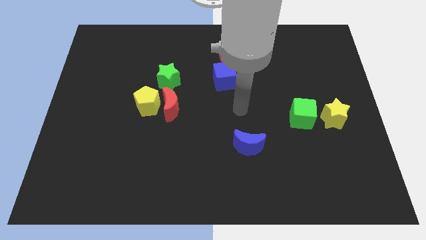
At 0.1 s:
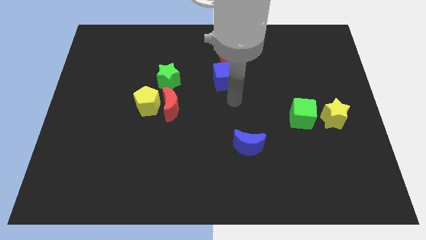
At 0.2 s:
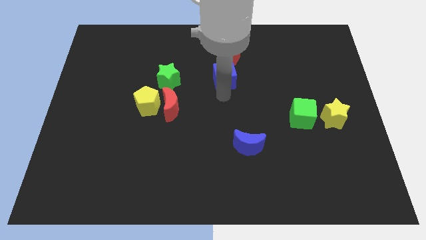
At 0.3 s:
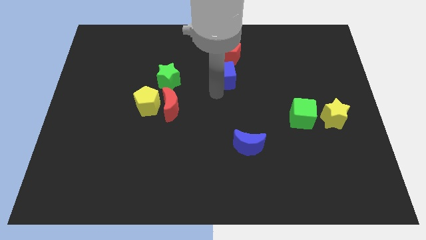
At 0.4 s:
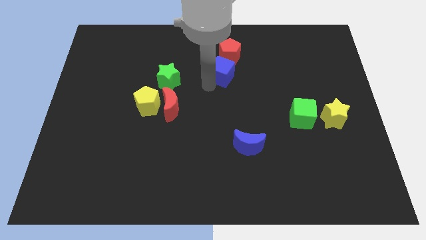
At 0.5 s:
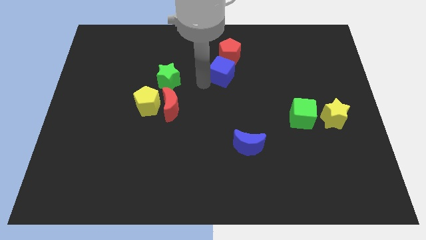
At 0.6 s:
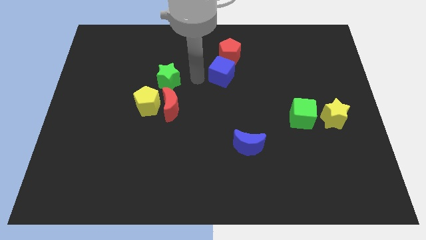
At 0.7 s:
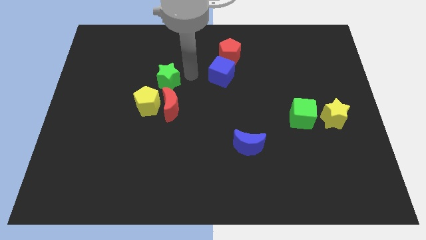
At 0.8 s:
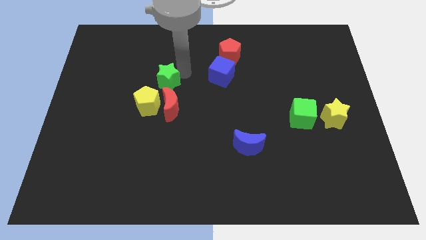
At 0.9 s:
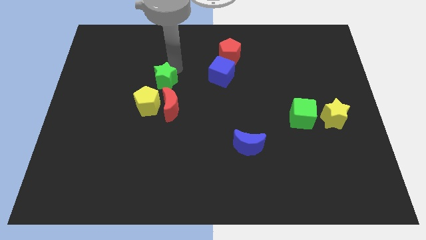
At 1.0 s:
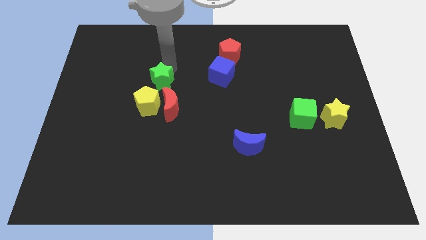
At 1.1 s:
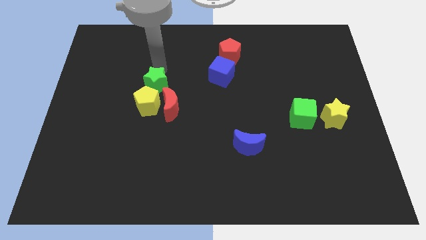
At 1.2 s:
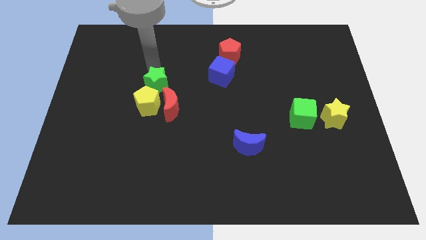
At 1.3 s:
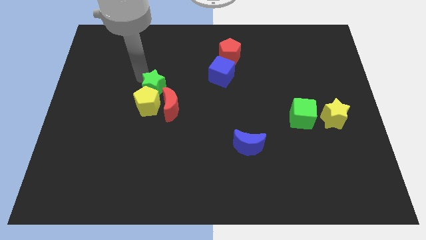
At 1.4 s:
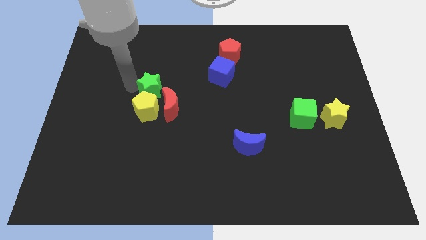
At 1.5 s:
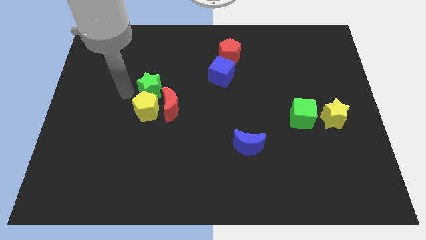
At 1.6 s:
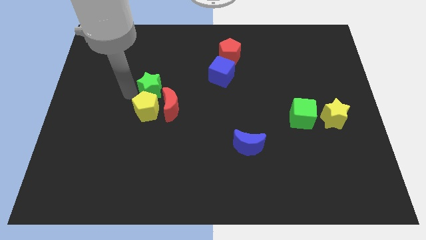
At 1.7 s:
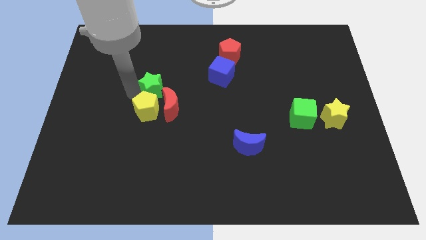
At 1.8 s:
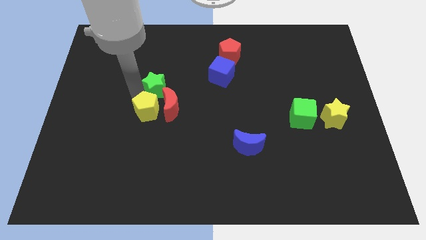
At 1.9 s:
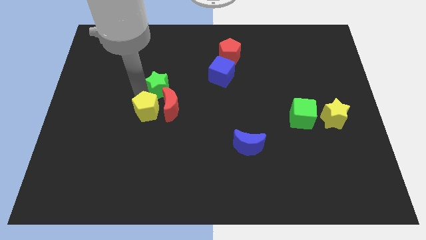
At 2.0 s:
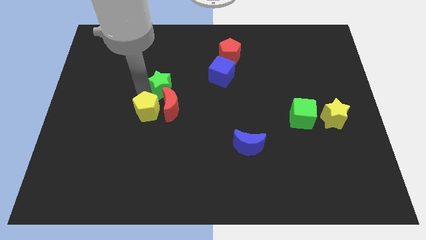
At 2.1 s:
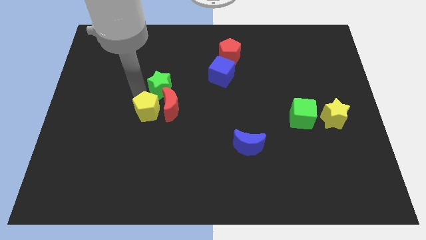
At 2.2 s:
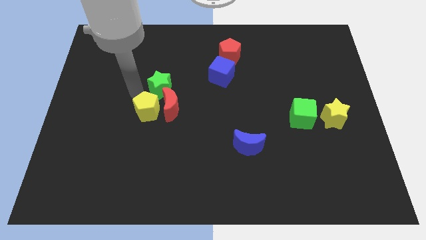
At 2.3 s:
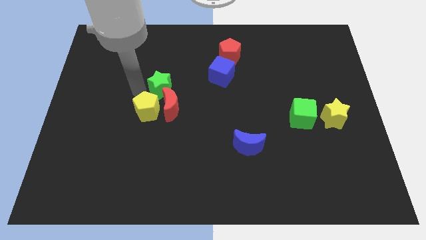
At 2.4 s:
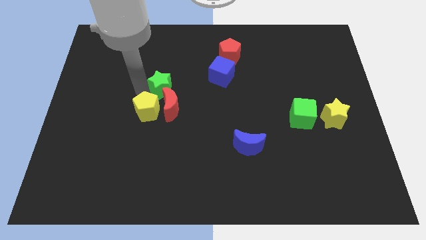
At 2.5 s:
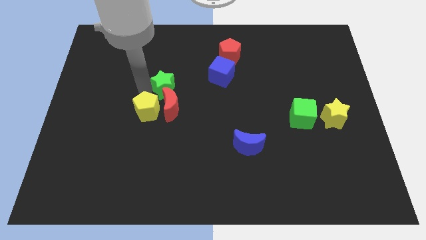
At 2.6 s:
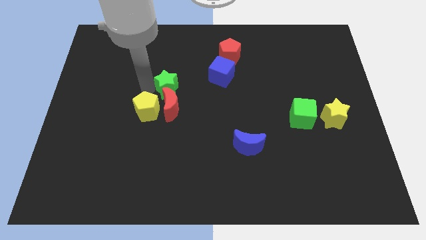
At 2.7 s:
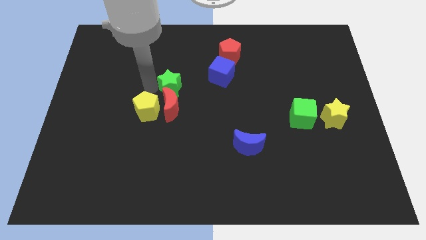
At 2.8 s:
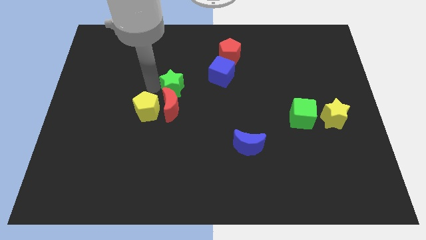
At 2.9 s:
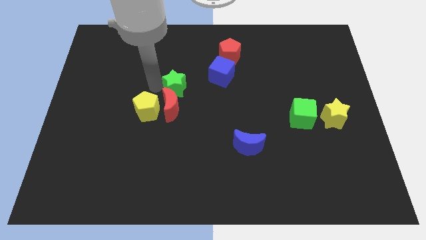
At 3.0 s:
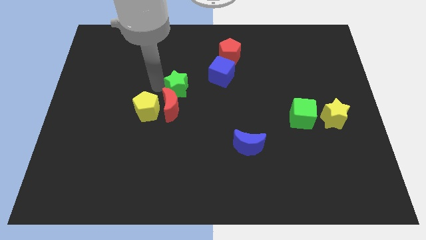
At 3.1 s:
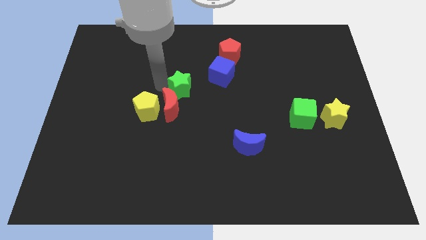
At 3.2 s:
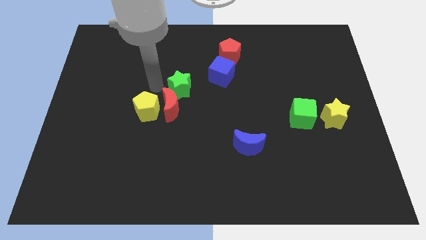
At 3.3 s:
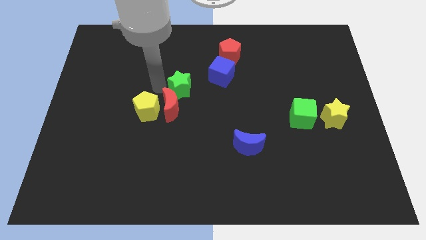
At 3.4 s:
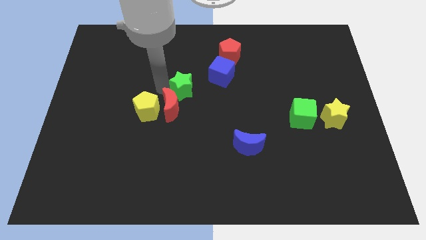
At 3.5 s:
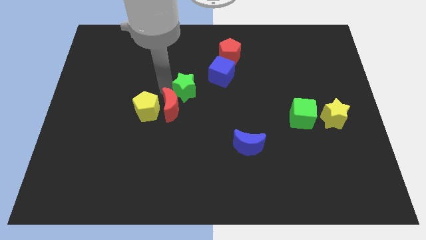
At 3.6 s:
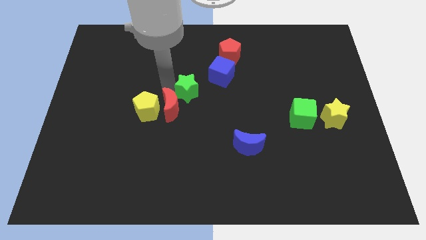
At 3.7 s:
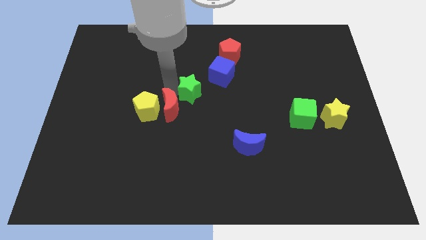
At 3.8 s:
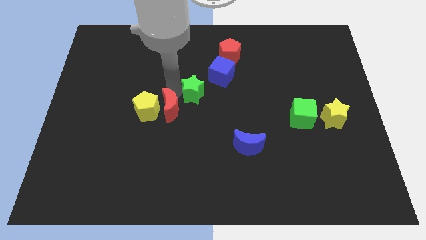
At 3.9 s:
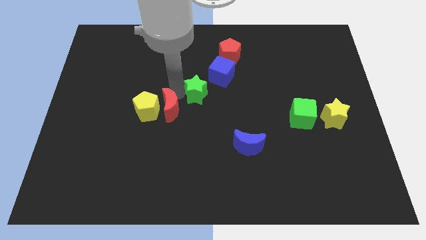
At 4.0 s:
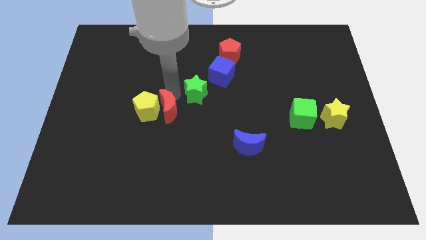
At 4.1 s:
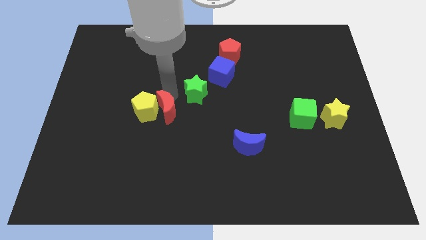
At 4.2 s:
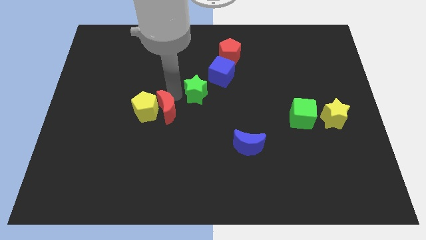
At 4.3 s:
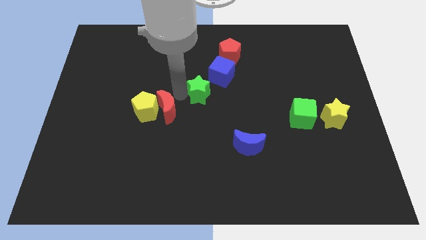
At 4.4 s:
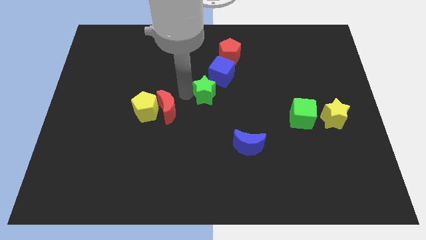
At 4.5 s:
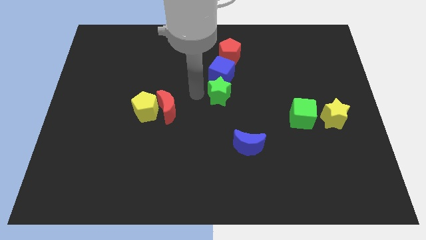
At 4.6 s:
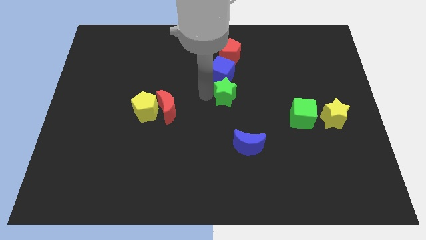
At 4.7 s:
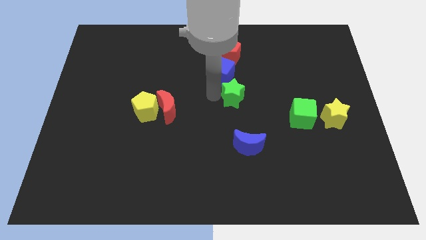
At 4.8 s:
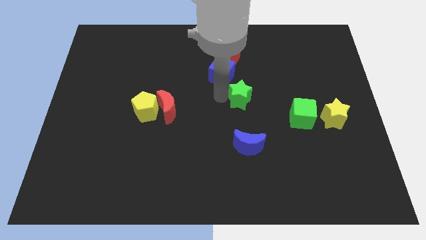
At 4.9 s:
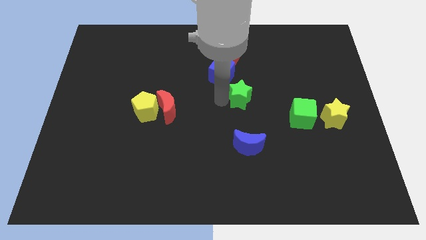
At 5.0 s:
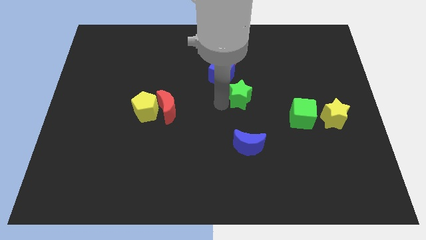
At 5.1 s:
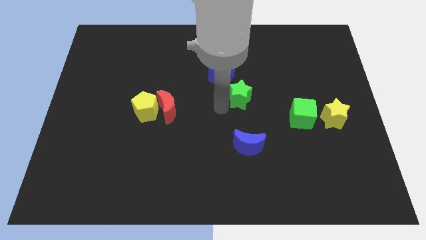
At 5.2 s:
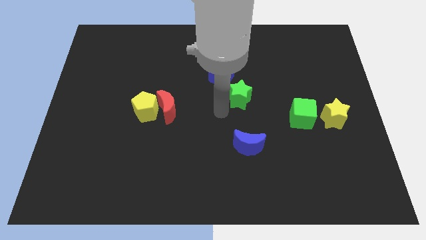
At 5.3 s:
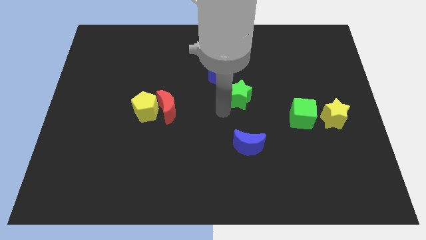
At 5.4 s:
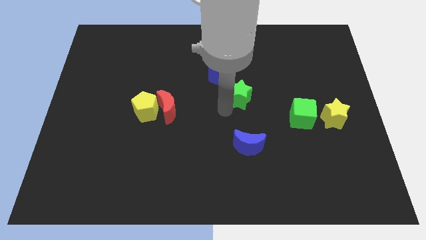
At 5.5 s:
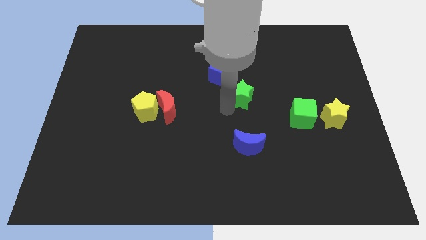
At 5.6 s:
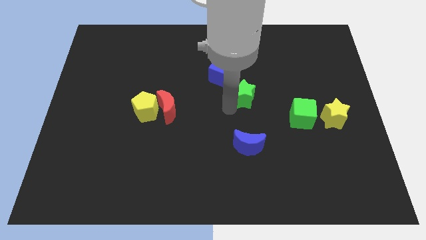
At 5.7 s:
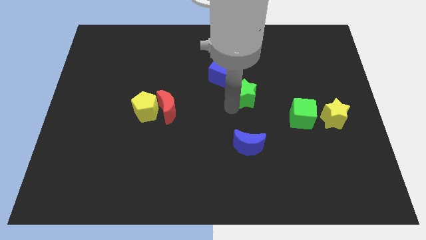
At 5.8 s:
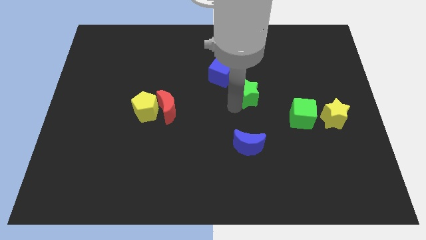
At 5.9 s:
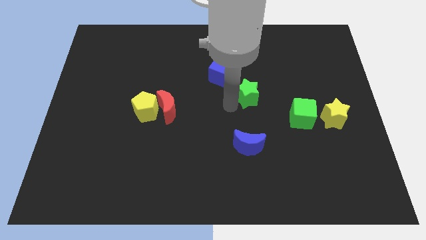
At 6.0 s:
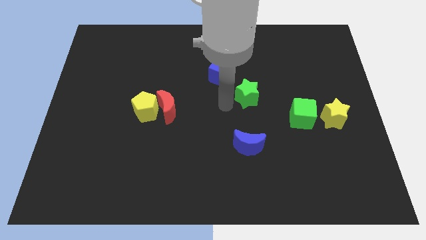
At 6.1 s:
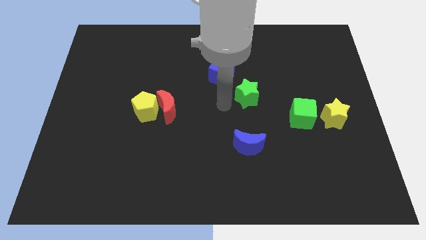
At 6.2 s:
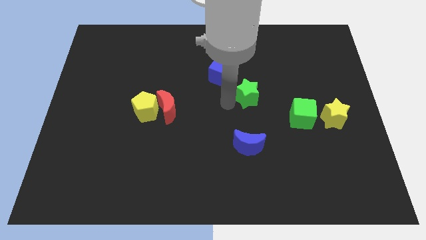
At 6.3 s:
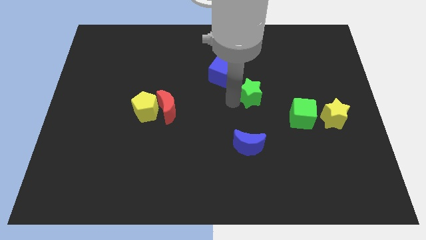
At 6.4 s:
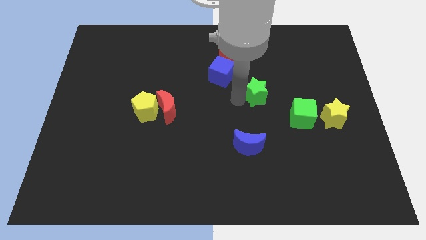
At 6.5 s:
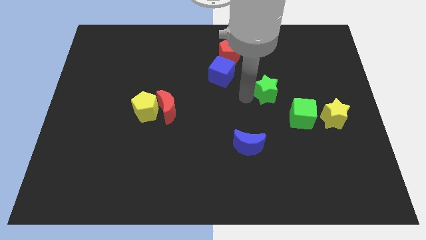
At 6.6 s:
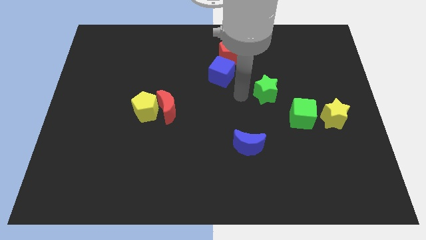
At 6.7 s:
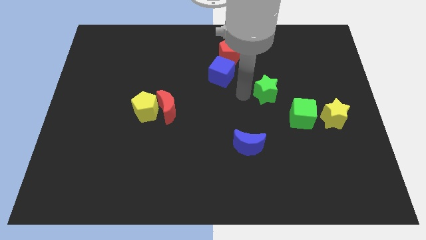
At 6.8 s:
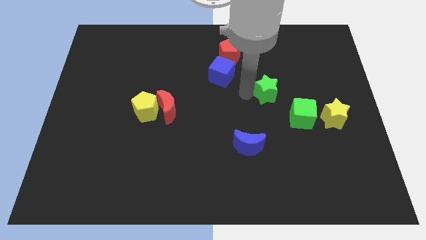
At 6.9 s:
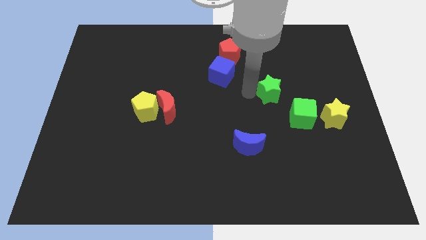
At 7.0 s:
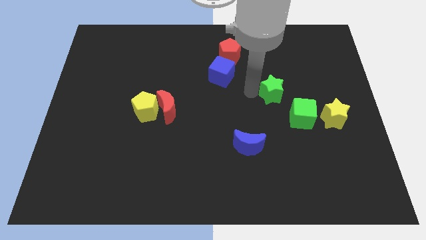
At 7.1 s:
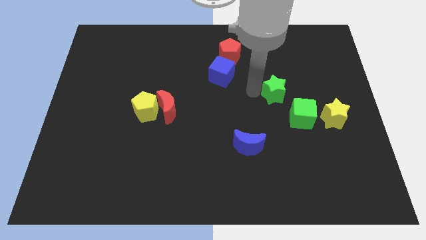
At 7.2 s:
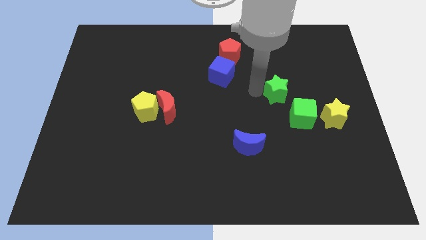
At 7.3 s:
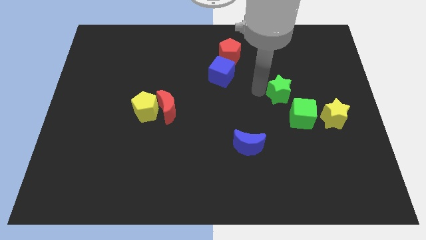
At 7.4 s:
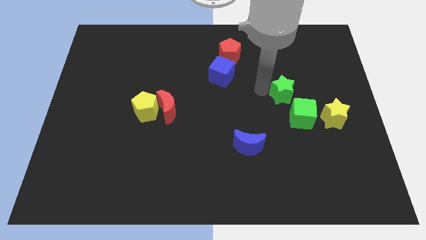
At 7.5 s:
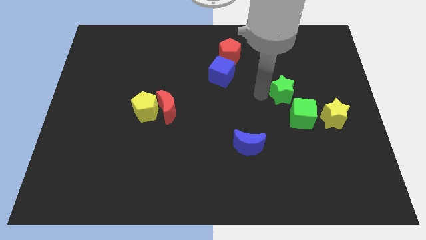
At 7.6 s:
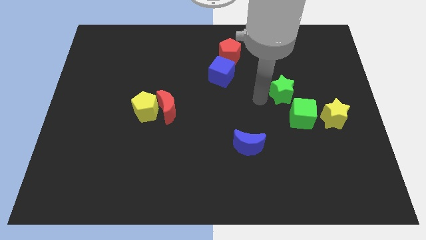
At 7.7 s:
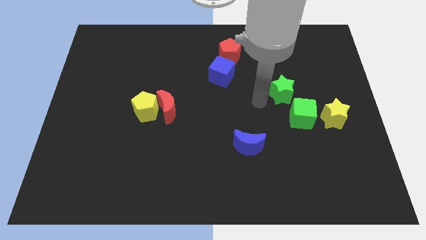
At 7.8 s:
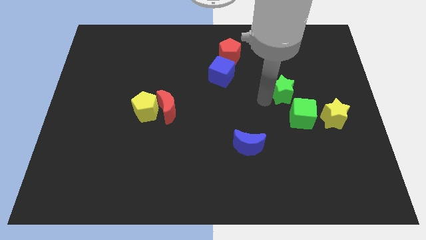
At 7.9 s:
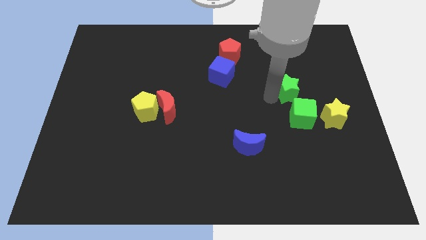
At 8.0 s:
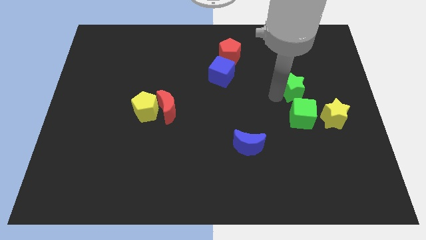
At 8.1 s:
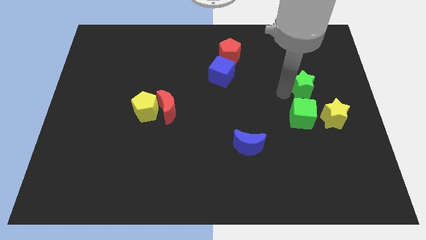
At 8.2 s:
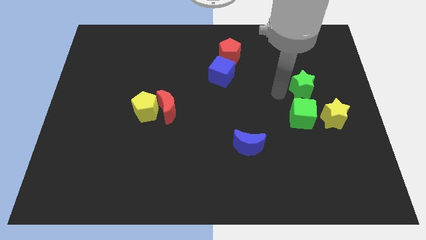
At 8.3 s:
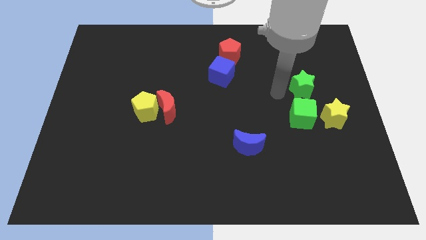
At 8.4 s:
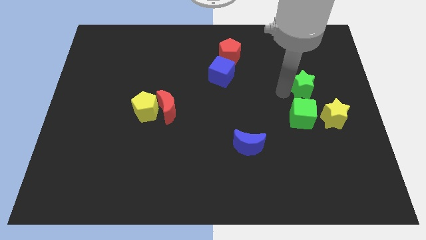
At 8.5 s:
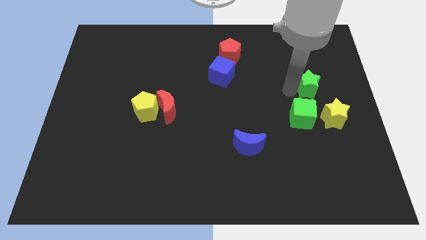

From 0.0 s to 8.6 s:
slide the green star to the top of the yellow star
